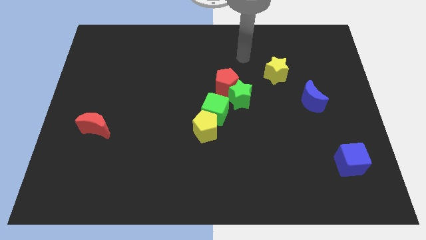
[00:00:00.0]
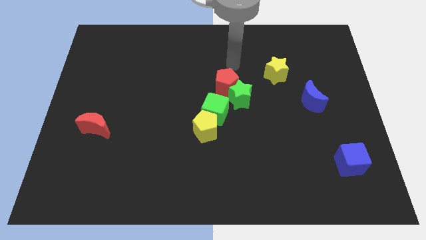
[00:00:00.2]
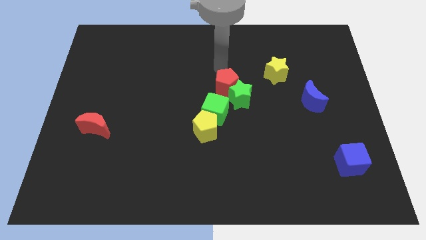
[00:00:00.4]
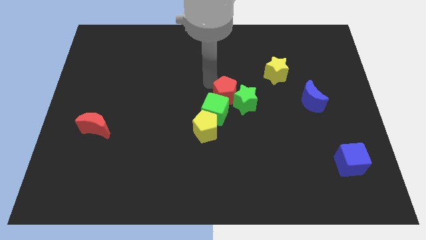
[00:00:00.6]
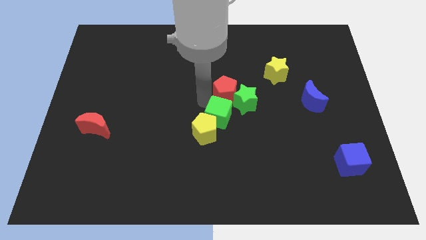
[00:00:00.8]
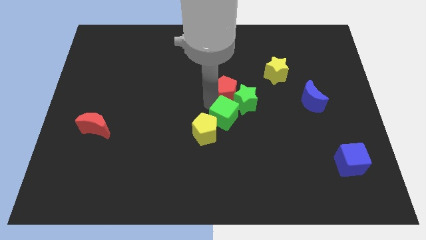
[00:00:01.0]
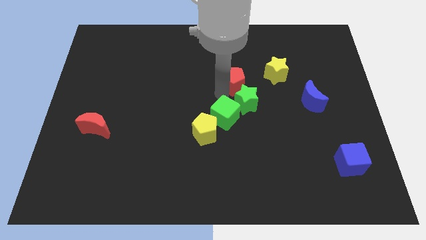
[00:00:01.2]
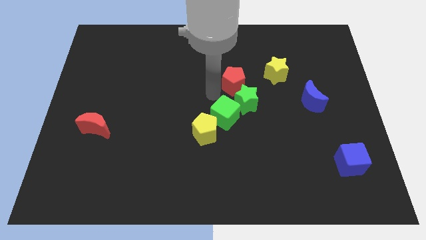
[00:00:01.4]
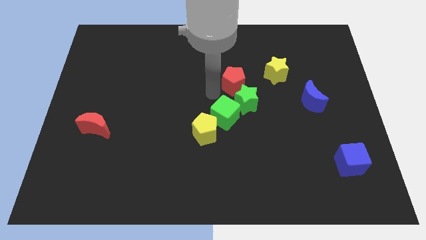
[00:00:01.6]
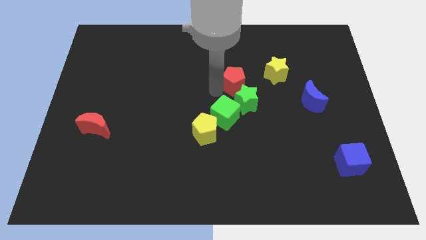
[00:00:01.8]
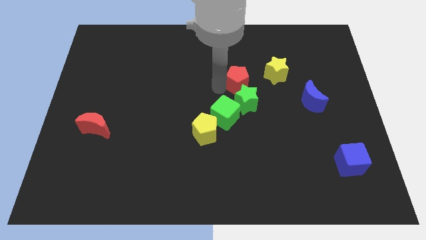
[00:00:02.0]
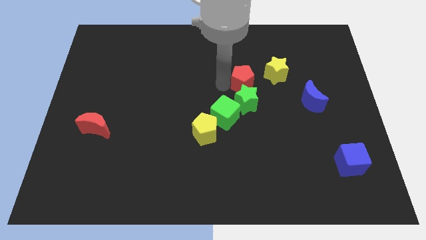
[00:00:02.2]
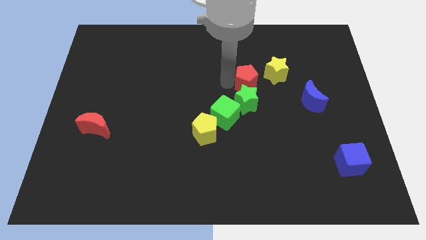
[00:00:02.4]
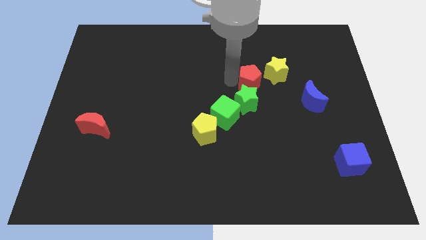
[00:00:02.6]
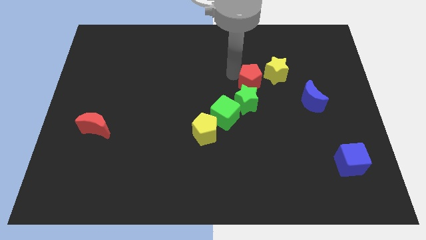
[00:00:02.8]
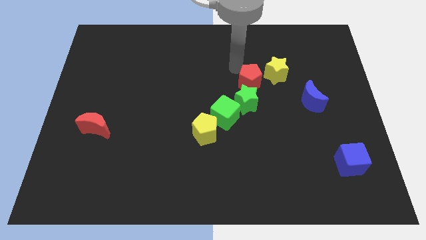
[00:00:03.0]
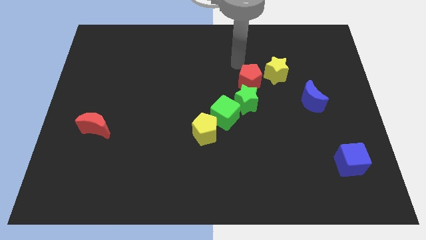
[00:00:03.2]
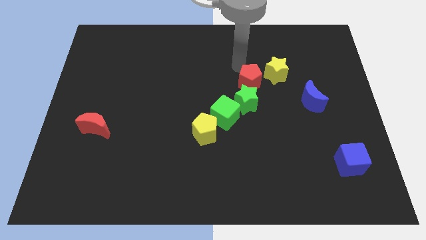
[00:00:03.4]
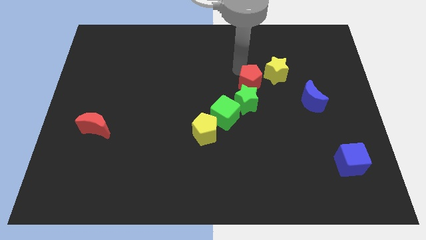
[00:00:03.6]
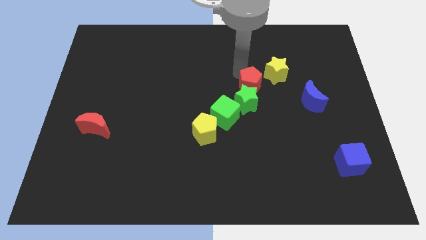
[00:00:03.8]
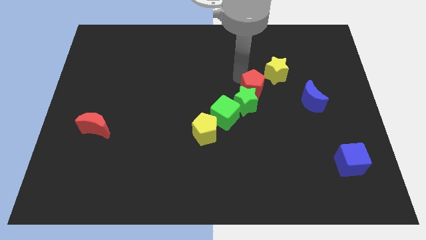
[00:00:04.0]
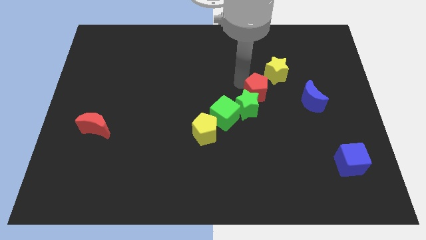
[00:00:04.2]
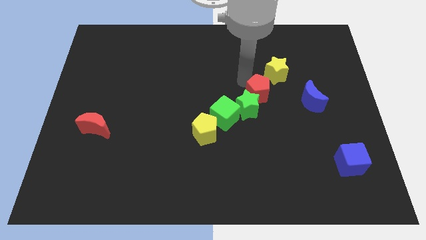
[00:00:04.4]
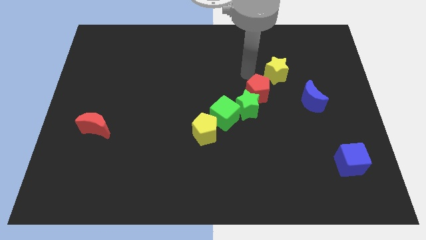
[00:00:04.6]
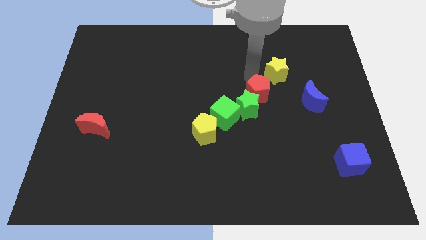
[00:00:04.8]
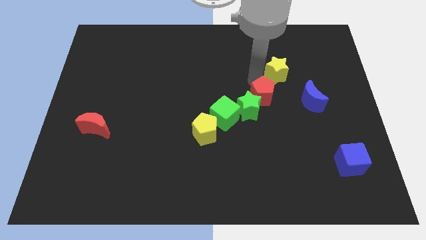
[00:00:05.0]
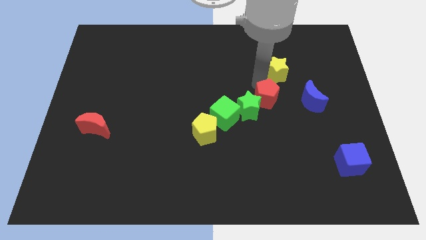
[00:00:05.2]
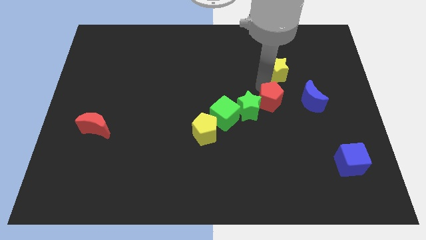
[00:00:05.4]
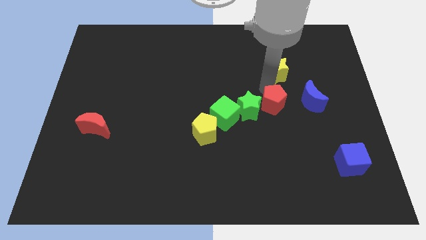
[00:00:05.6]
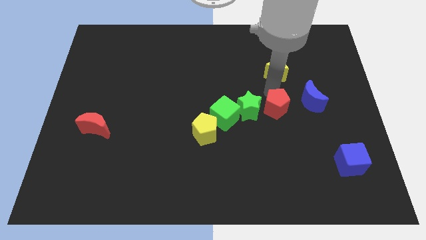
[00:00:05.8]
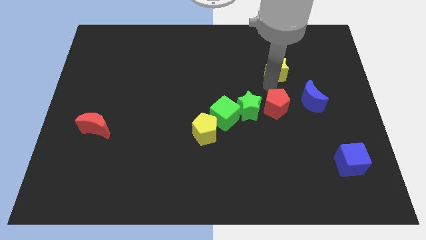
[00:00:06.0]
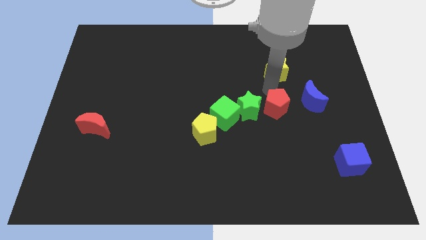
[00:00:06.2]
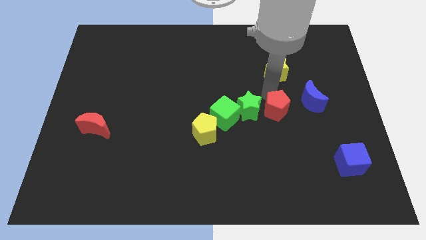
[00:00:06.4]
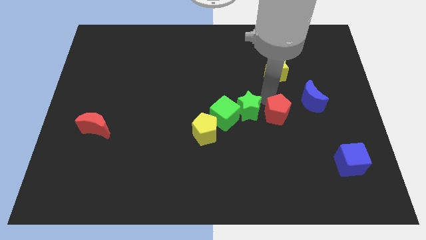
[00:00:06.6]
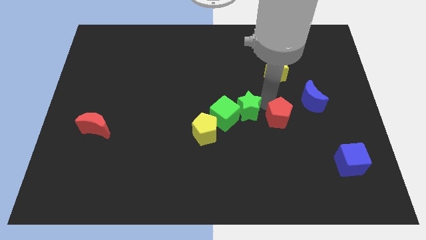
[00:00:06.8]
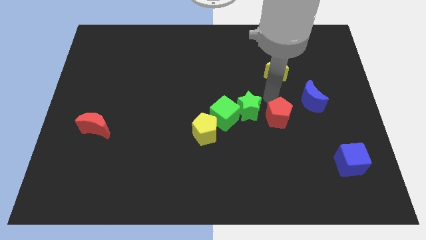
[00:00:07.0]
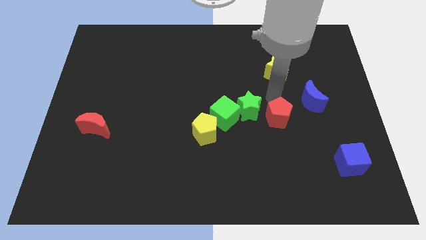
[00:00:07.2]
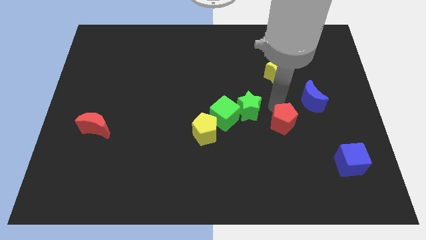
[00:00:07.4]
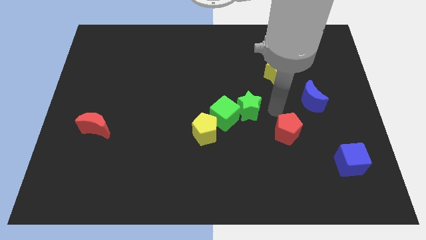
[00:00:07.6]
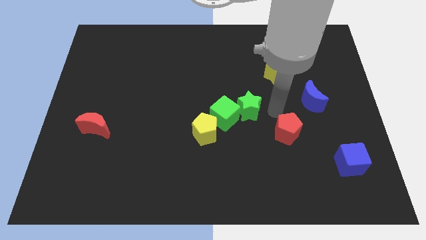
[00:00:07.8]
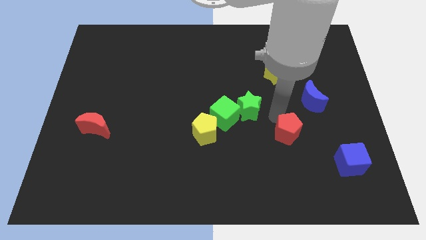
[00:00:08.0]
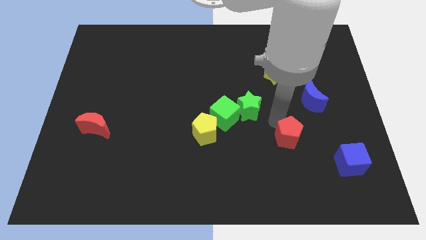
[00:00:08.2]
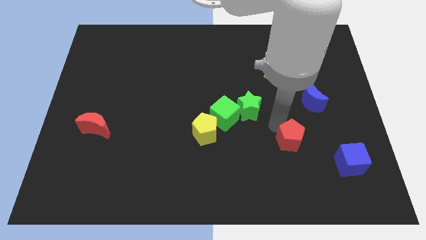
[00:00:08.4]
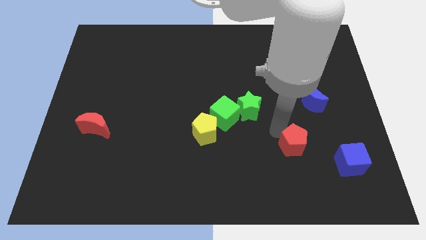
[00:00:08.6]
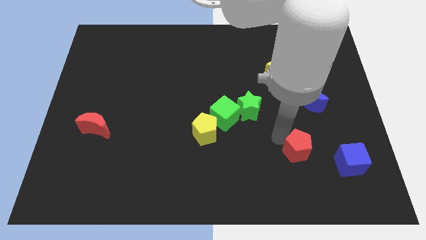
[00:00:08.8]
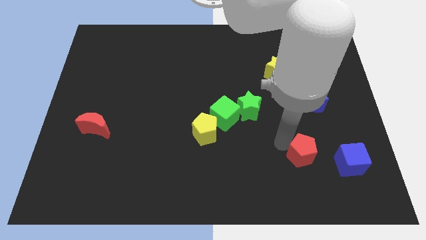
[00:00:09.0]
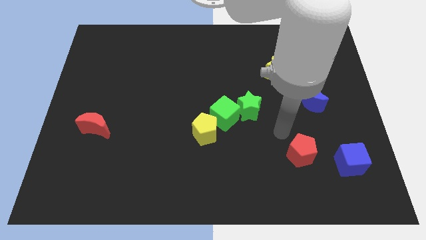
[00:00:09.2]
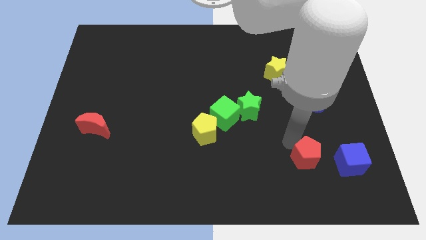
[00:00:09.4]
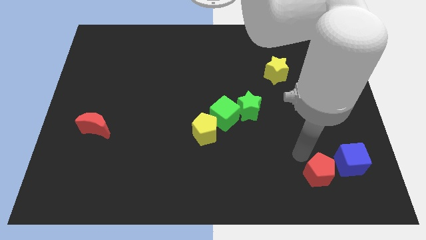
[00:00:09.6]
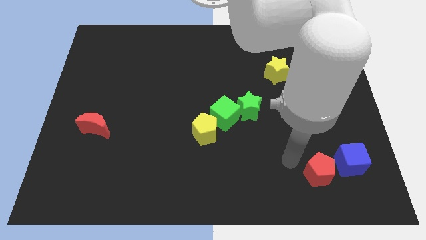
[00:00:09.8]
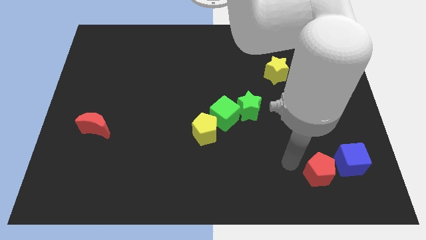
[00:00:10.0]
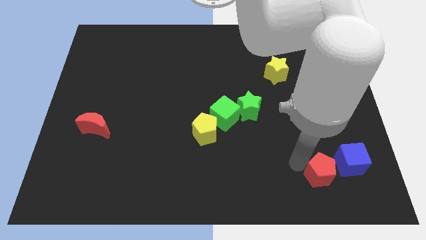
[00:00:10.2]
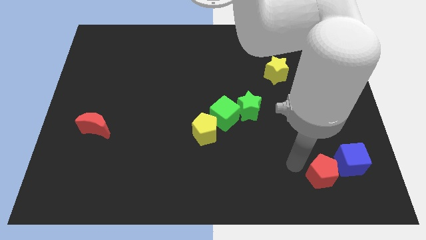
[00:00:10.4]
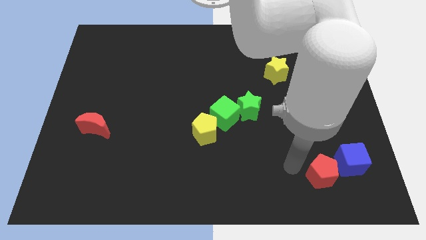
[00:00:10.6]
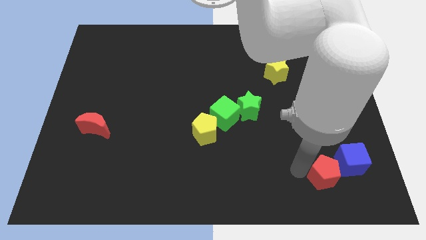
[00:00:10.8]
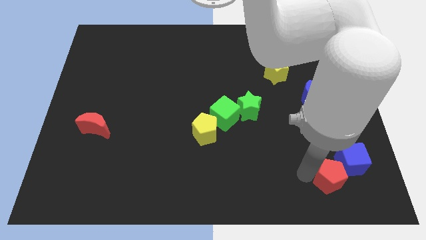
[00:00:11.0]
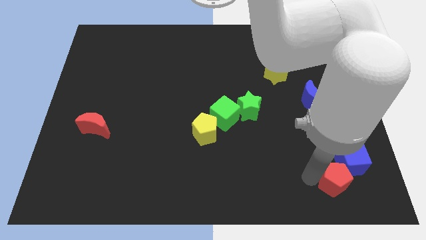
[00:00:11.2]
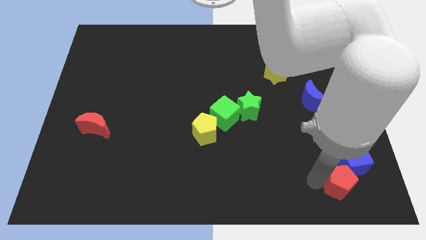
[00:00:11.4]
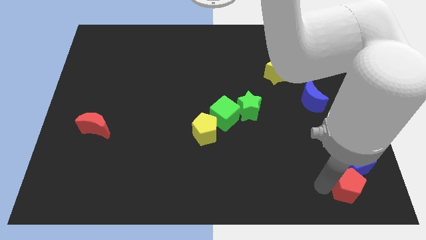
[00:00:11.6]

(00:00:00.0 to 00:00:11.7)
slide the red pentagon to the lower right corner
